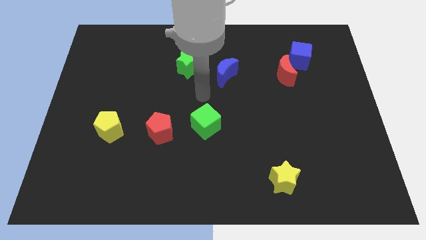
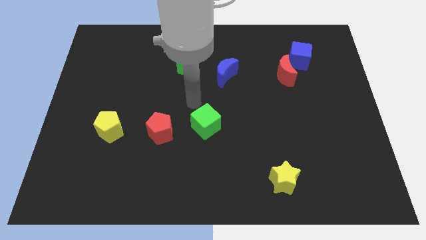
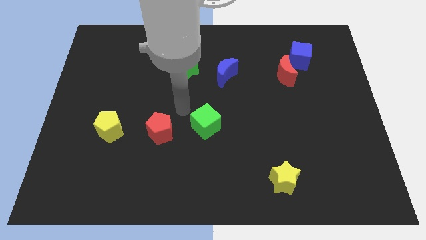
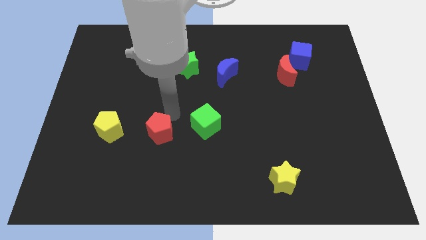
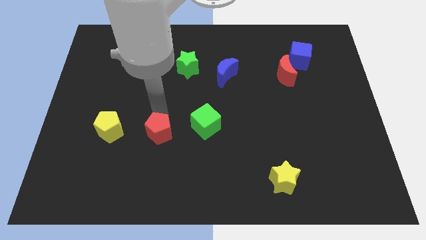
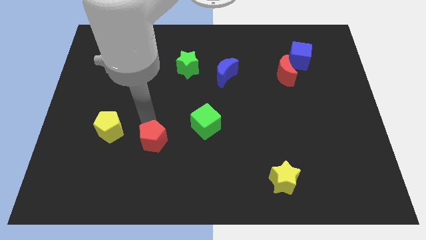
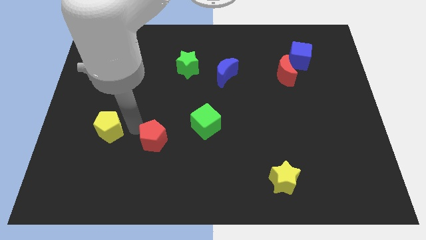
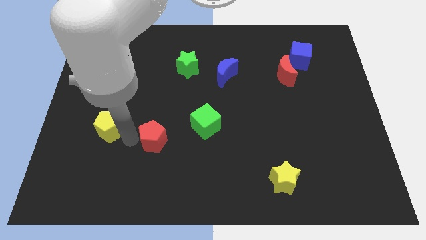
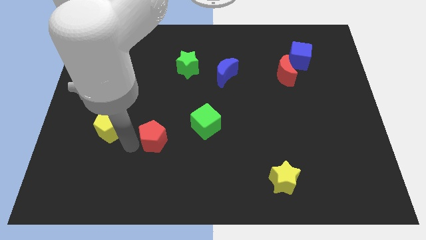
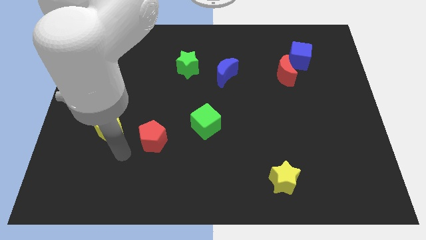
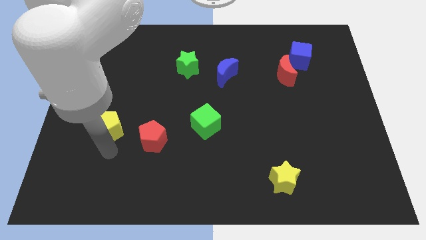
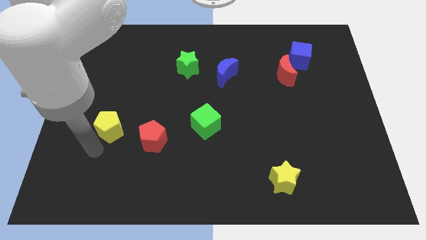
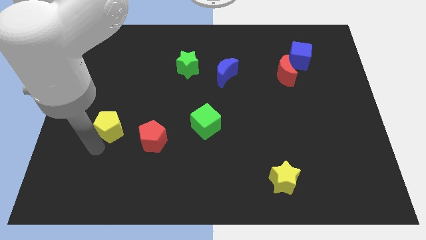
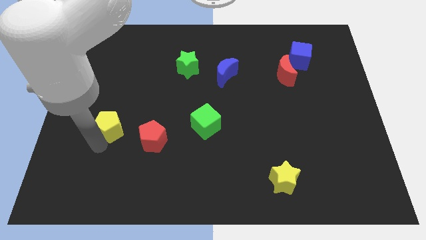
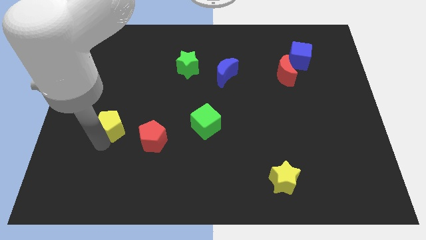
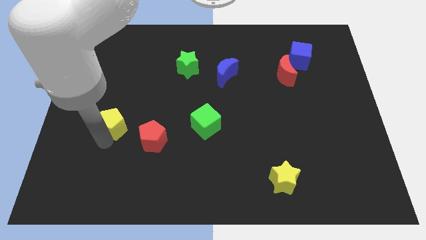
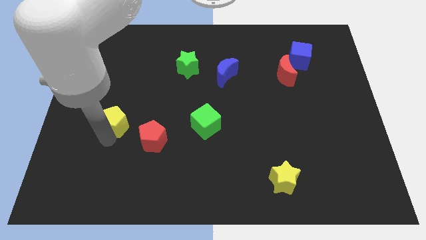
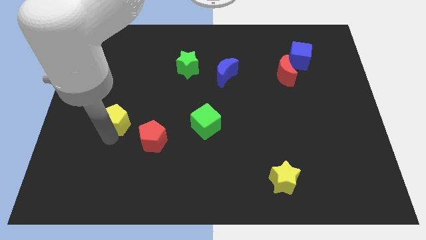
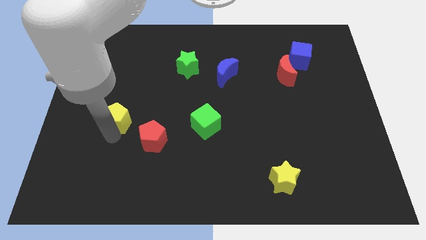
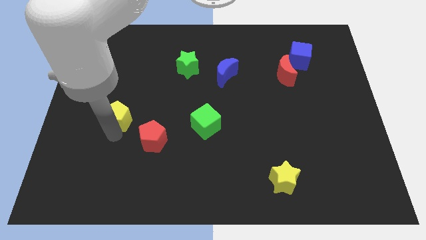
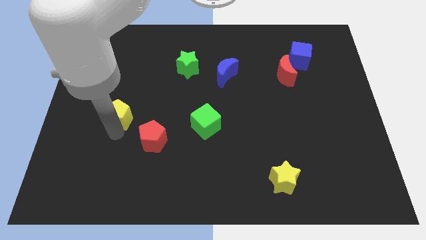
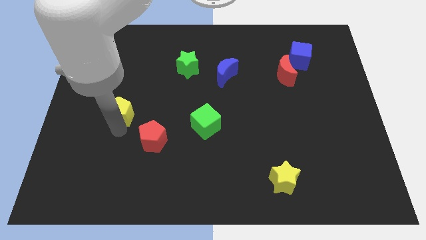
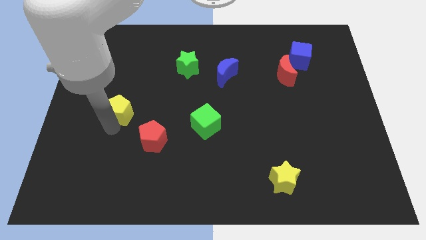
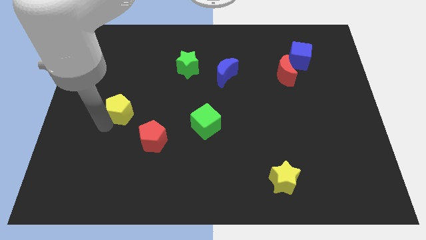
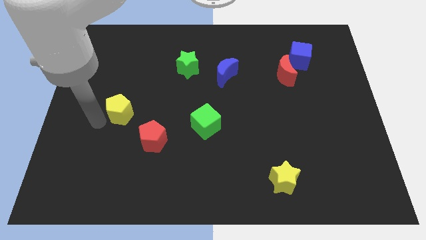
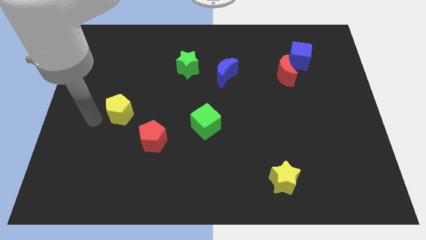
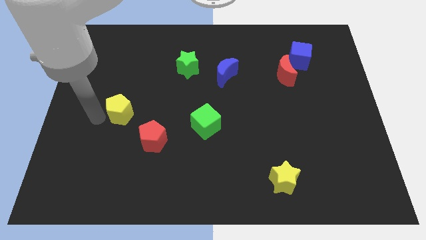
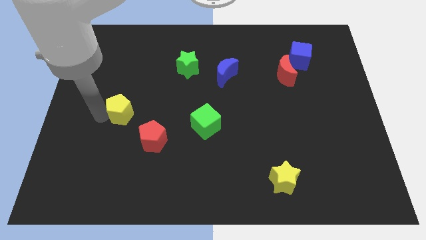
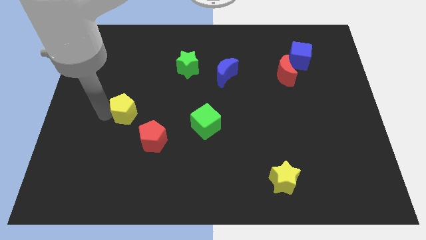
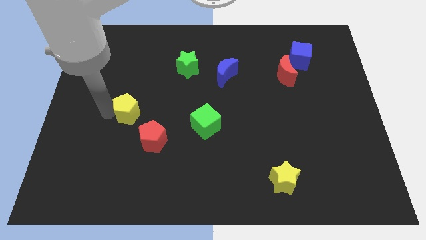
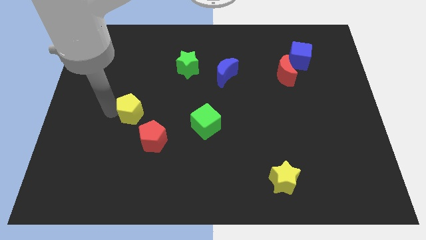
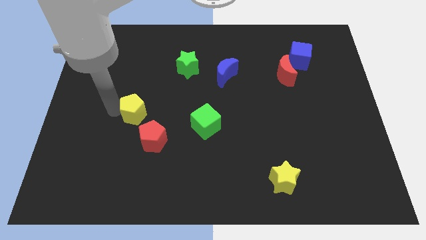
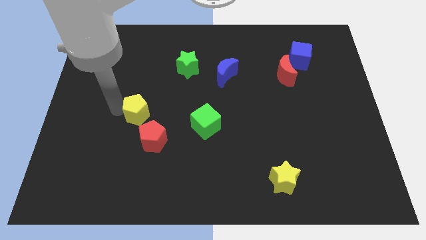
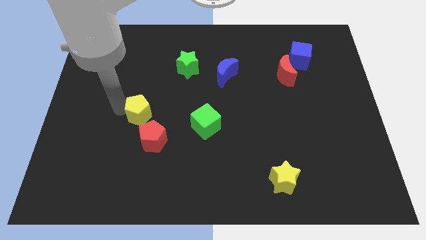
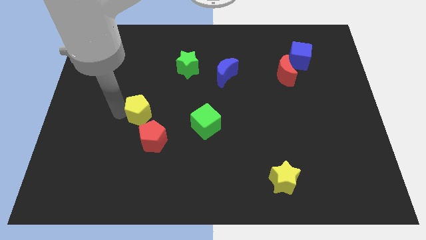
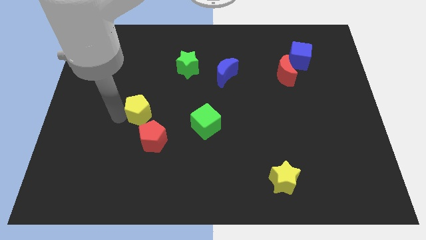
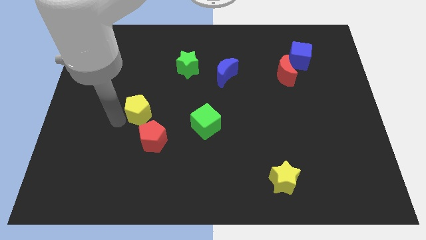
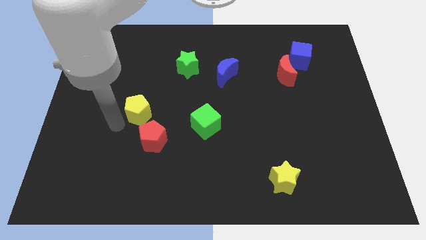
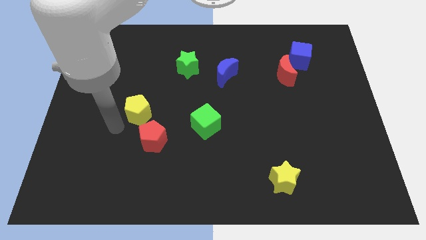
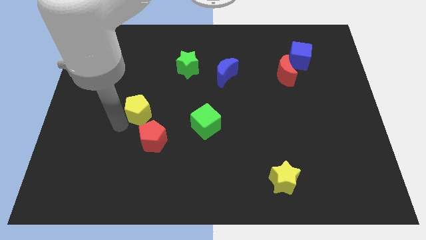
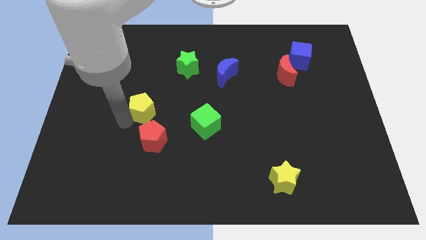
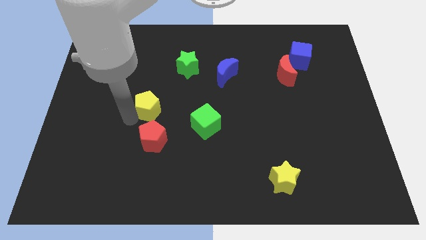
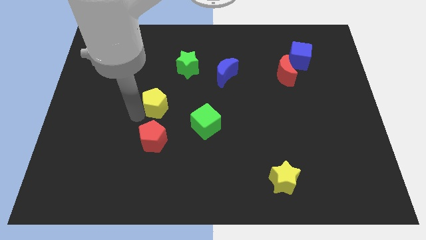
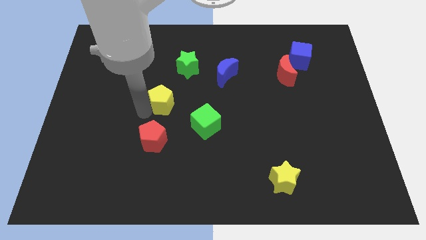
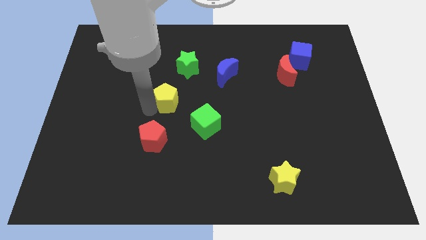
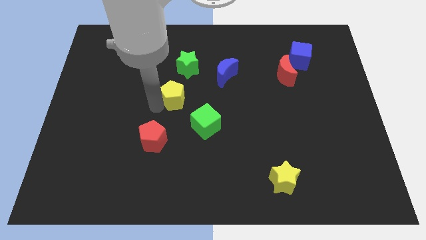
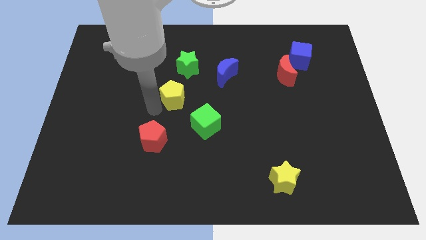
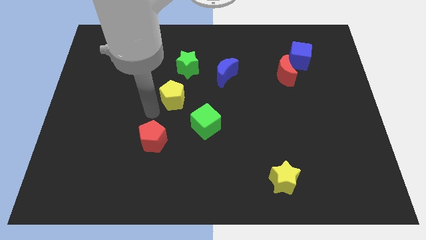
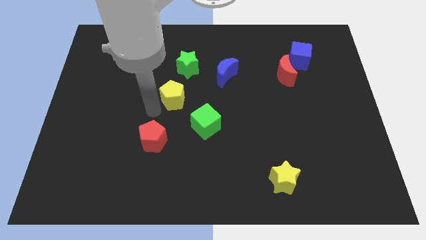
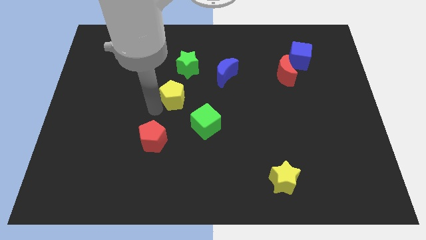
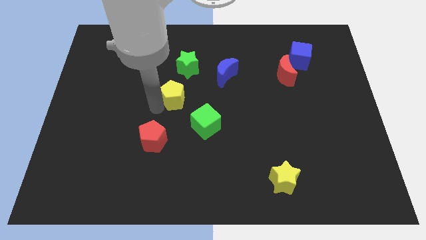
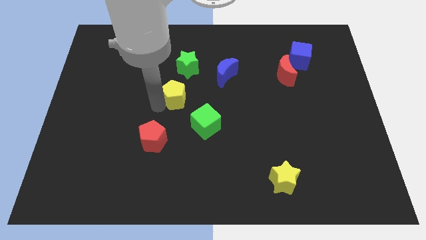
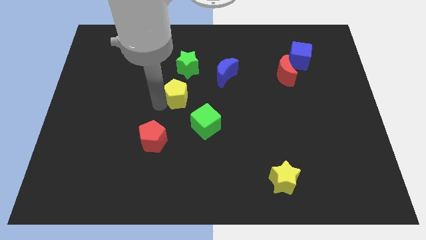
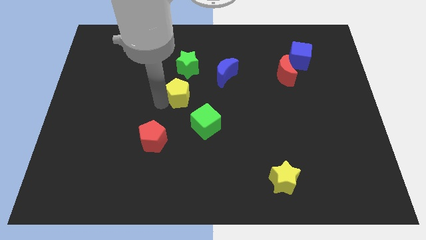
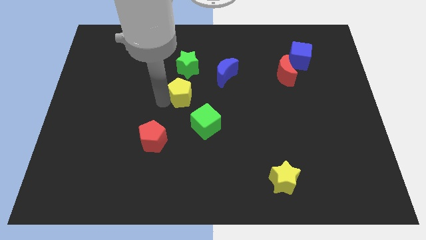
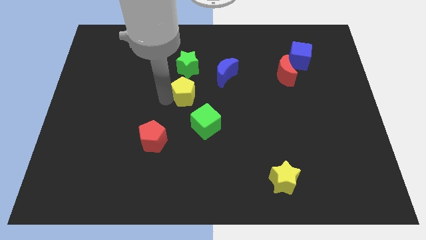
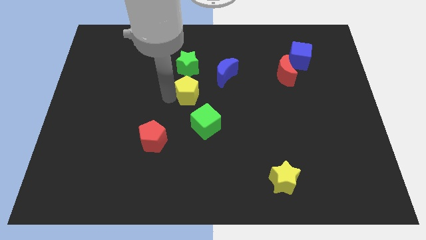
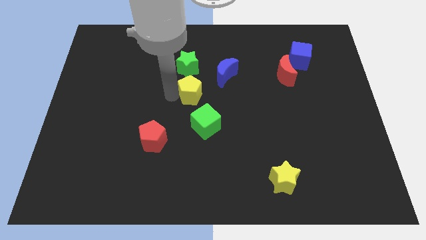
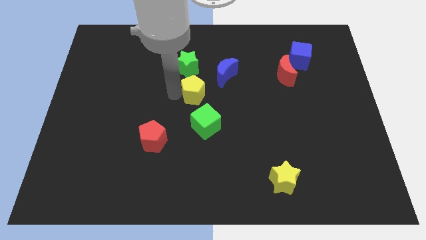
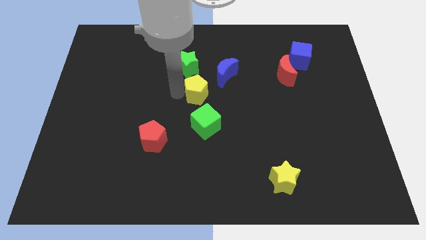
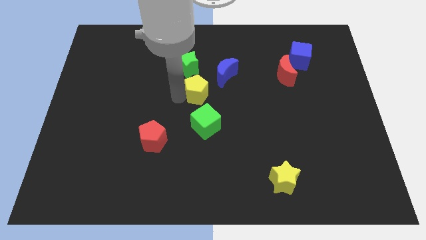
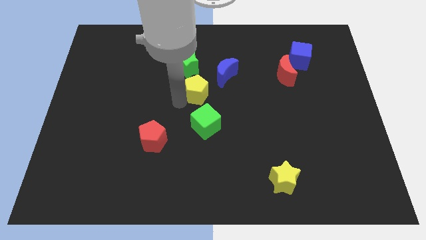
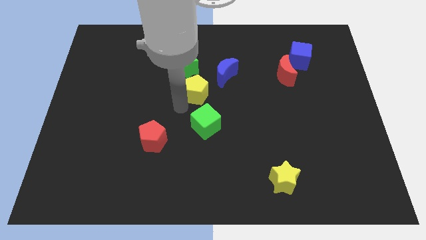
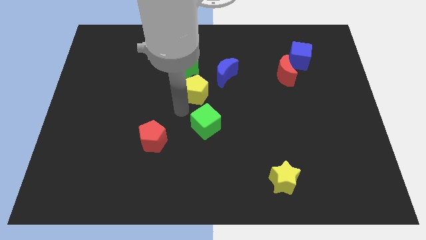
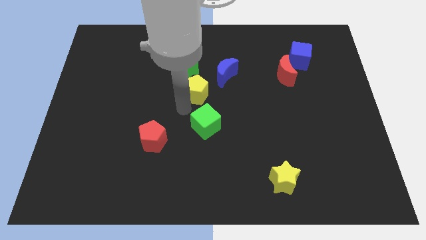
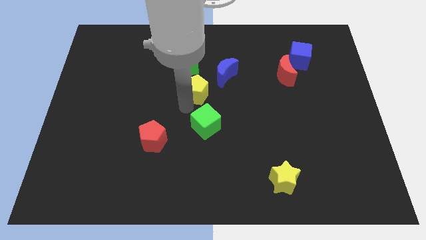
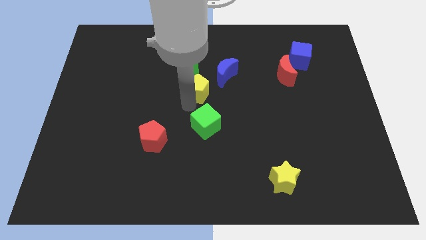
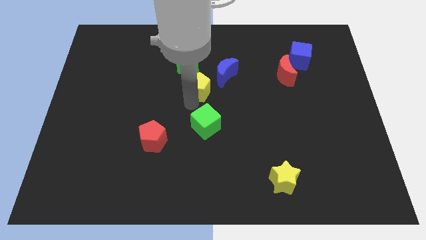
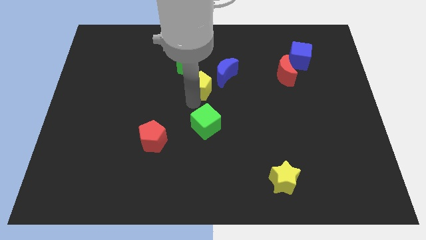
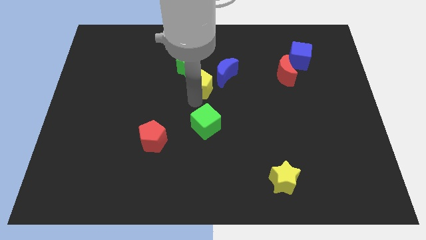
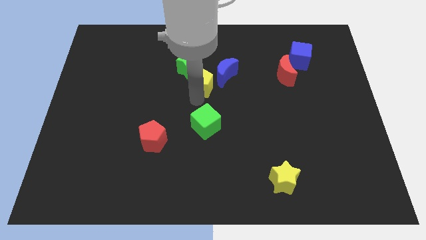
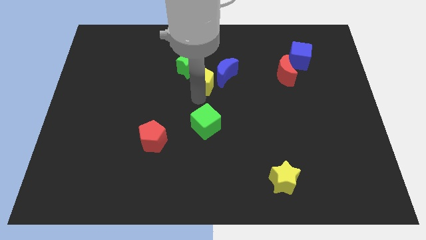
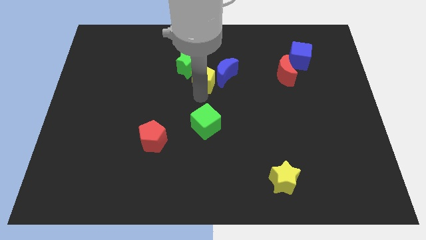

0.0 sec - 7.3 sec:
slide the yellow pentagon close to the blue moon

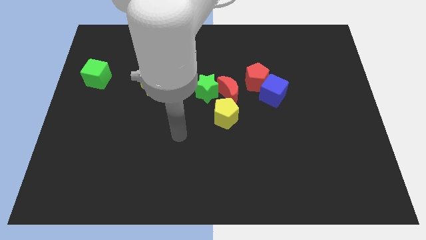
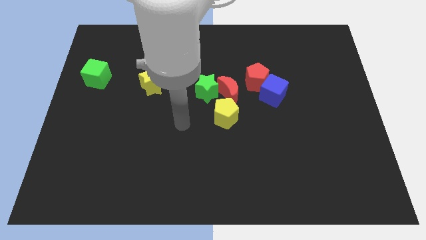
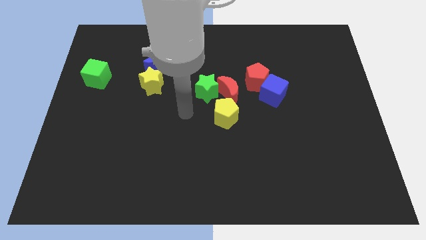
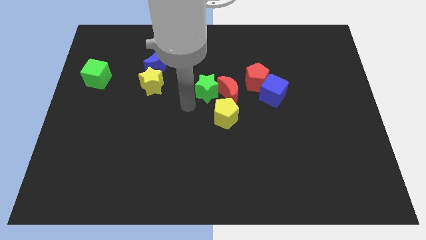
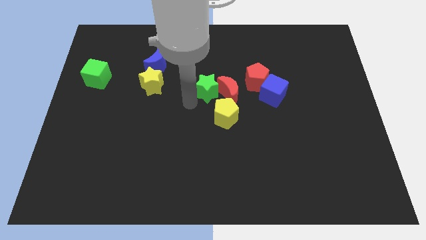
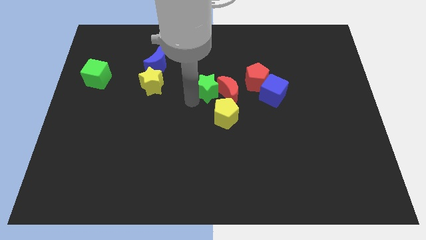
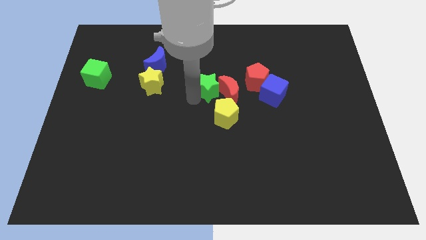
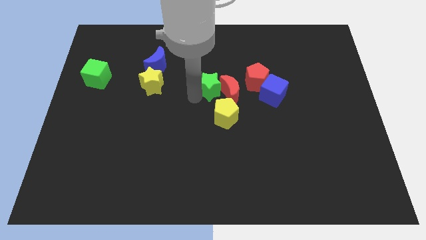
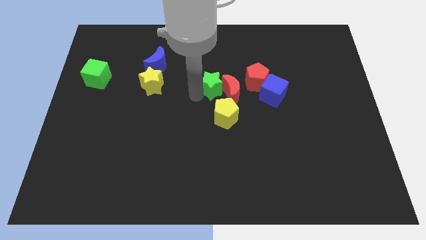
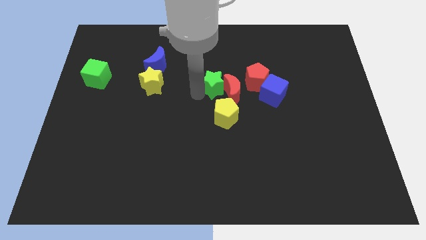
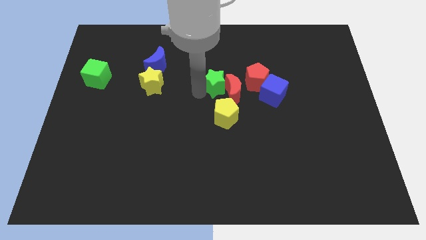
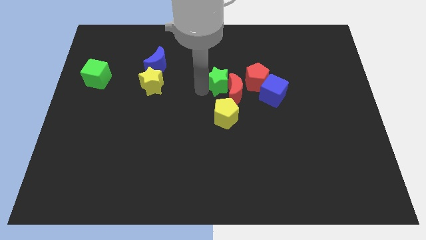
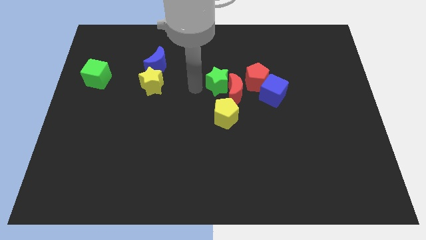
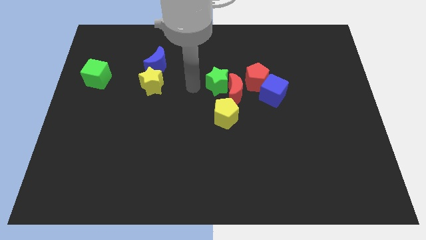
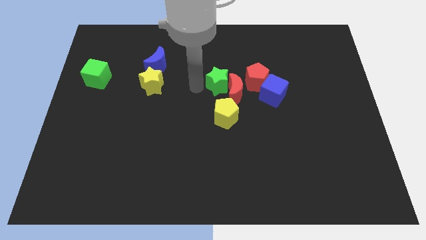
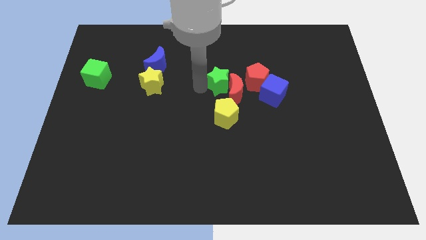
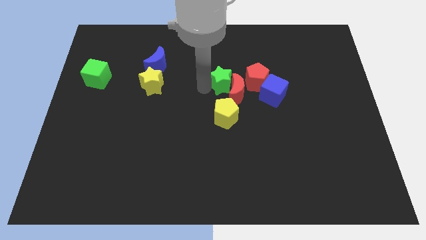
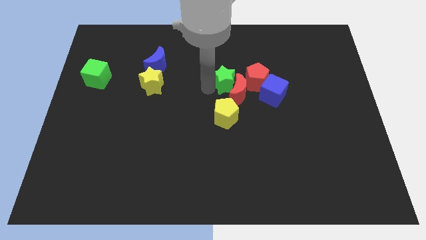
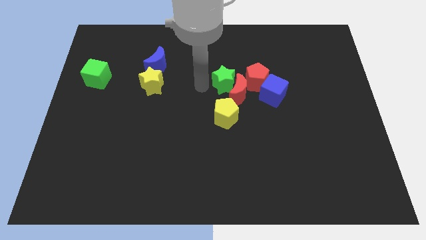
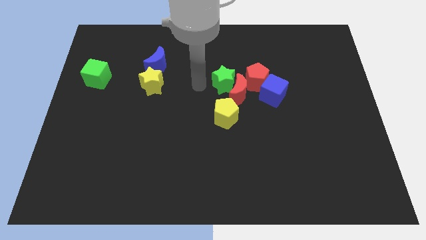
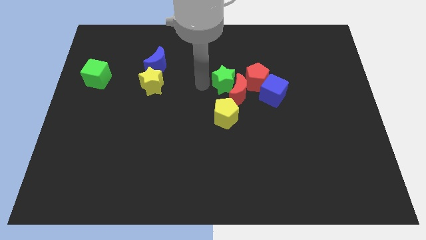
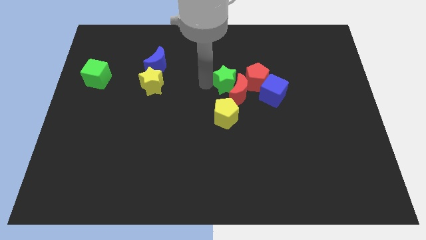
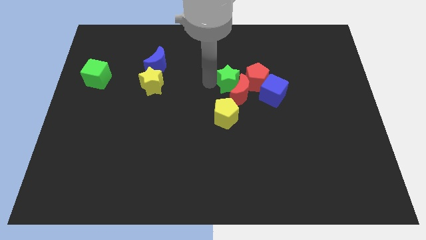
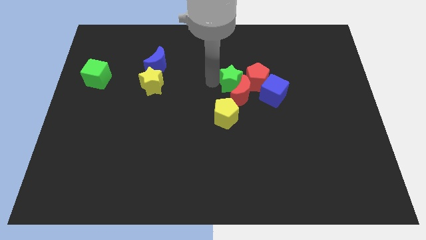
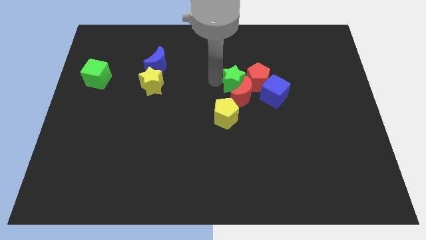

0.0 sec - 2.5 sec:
push the green star close to the red pentagon
